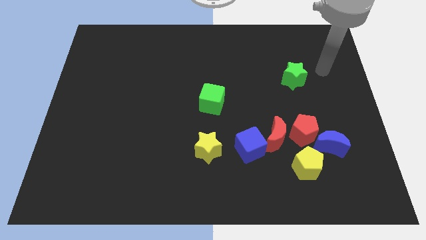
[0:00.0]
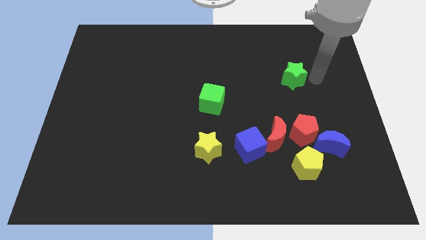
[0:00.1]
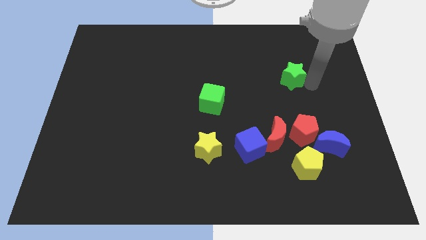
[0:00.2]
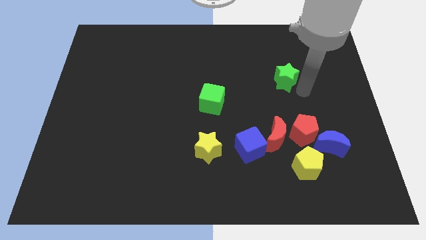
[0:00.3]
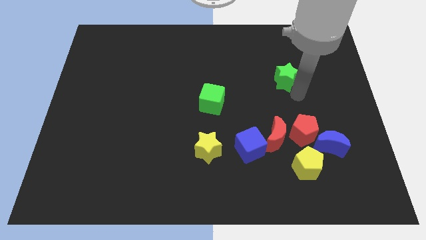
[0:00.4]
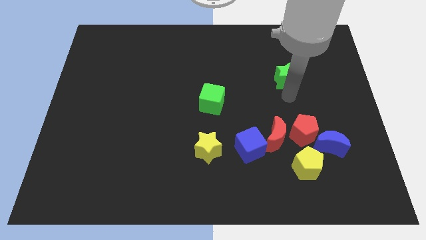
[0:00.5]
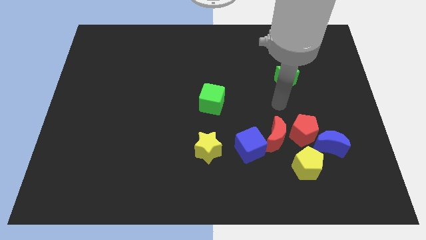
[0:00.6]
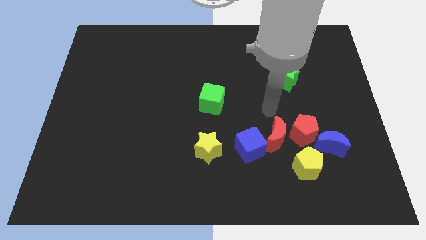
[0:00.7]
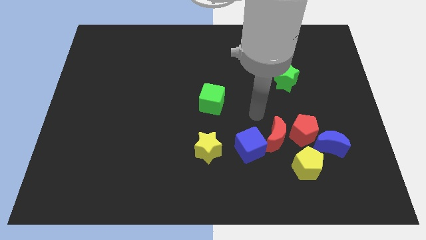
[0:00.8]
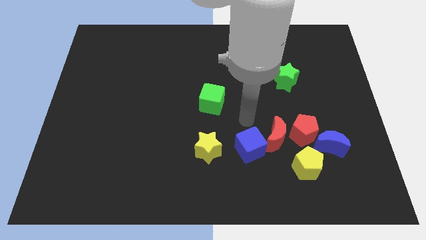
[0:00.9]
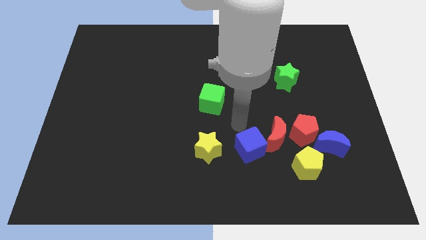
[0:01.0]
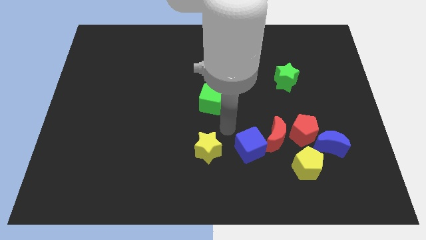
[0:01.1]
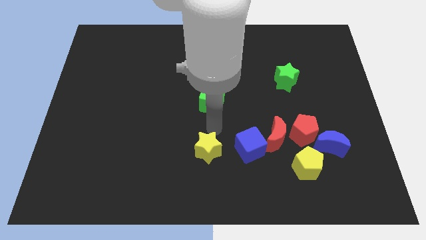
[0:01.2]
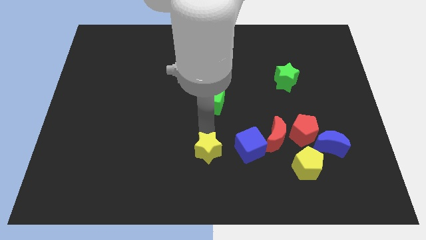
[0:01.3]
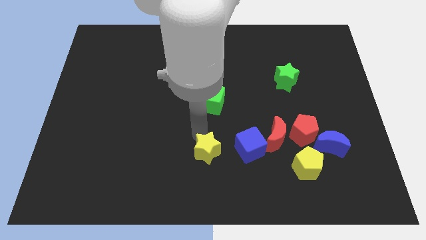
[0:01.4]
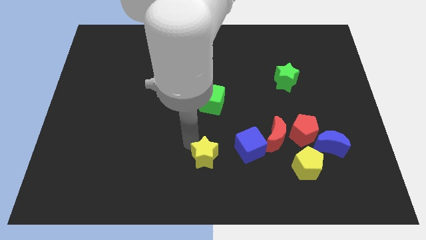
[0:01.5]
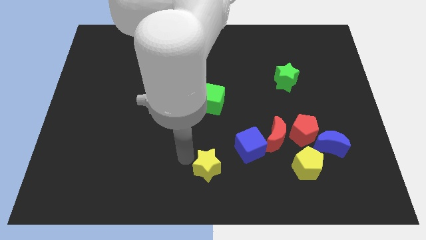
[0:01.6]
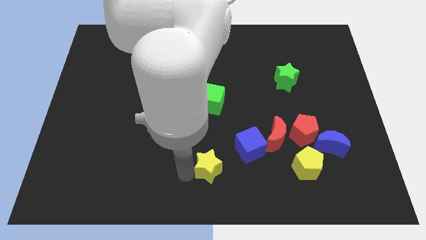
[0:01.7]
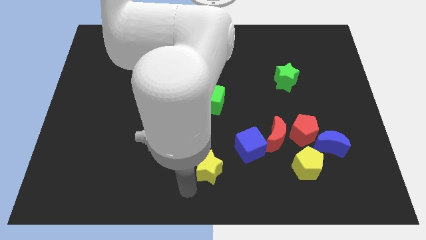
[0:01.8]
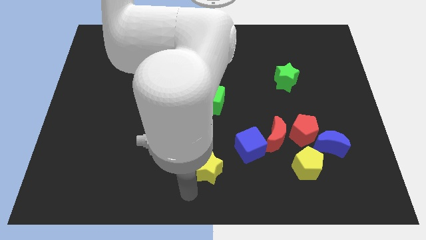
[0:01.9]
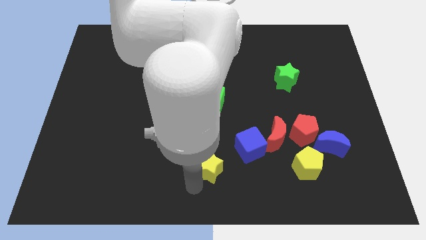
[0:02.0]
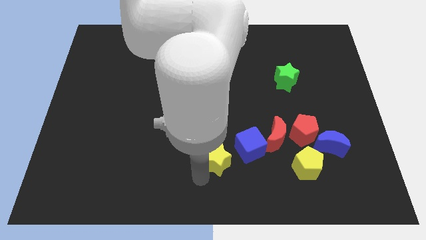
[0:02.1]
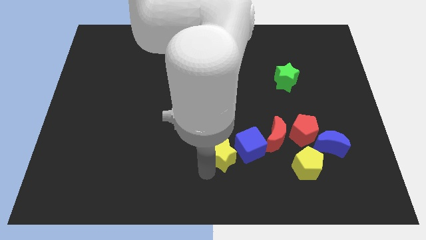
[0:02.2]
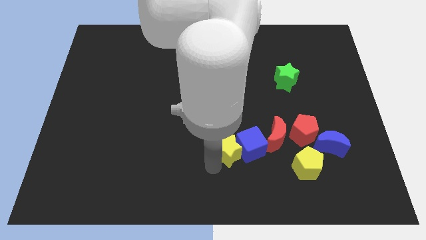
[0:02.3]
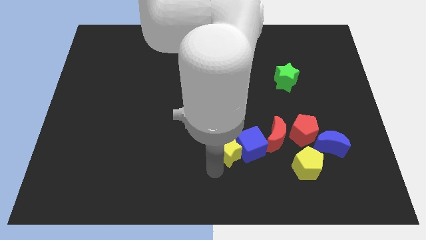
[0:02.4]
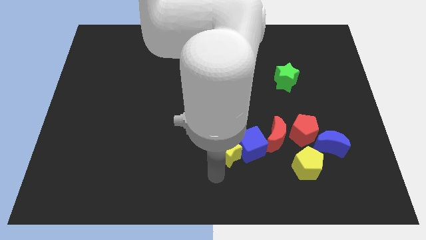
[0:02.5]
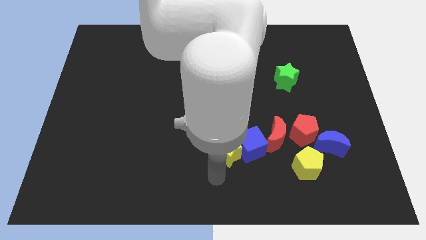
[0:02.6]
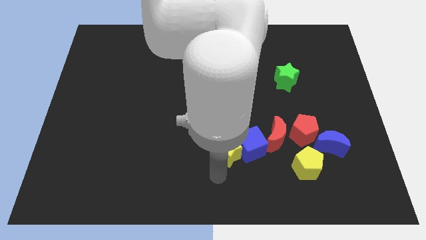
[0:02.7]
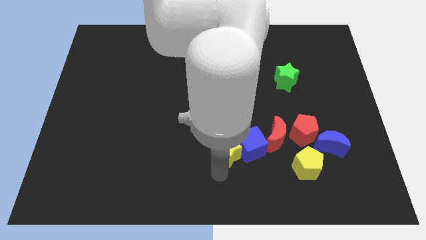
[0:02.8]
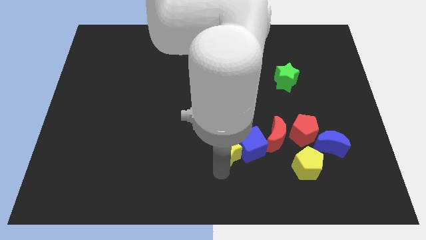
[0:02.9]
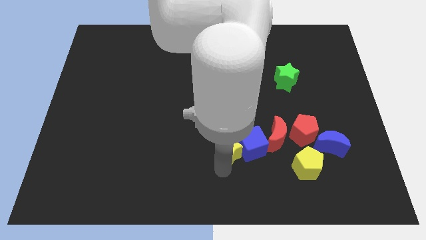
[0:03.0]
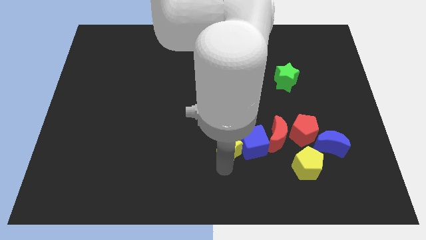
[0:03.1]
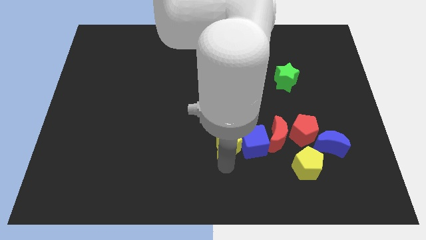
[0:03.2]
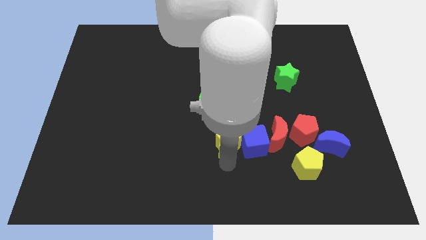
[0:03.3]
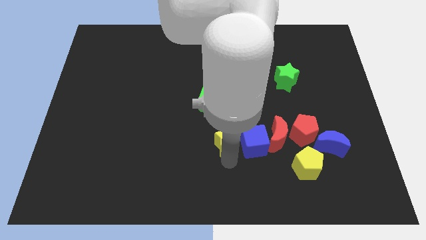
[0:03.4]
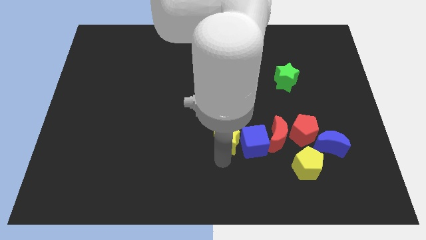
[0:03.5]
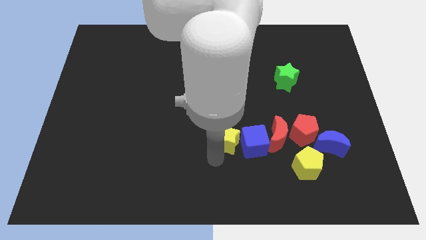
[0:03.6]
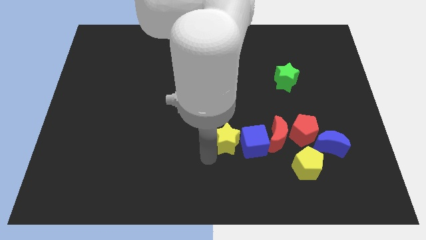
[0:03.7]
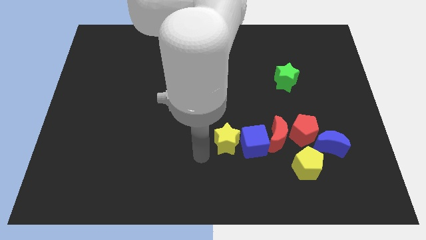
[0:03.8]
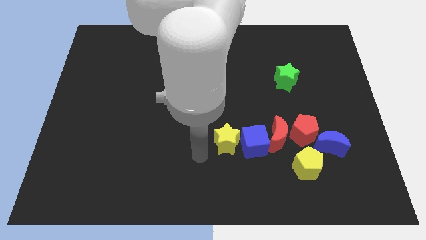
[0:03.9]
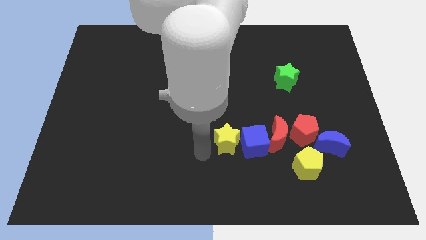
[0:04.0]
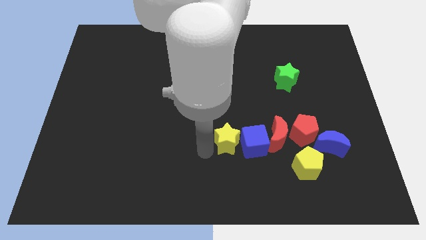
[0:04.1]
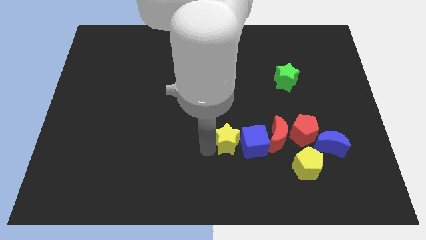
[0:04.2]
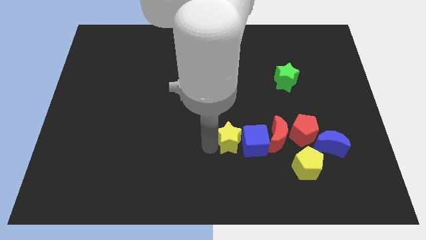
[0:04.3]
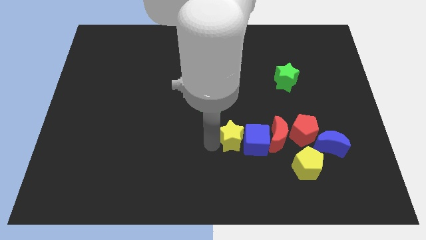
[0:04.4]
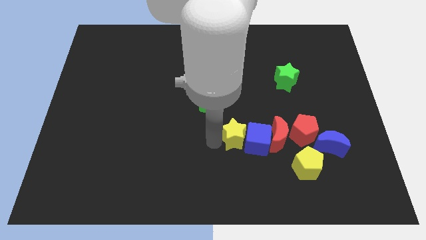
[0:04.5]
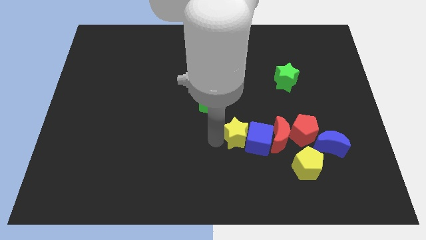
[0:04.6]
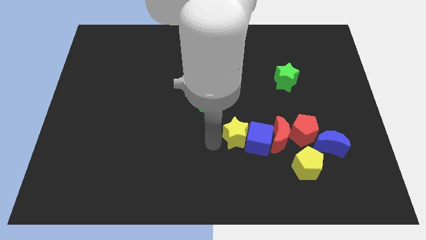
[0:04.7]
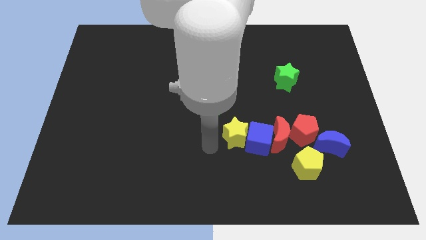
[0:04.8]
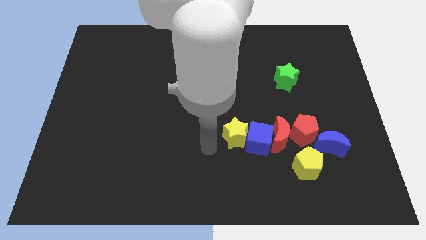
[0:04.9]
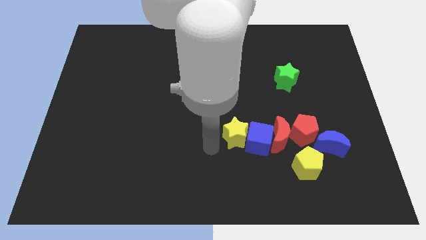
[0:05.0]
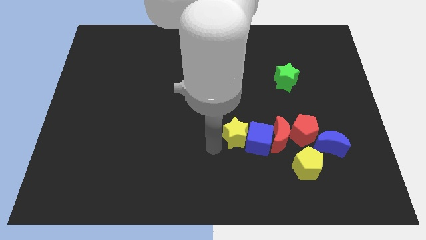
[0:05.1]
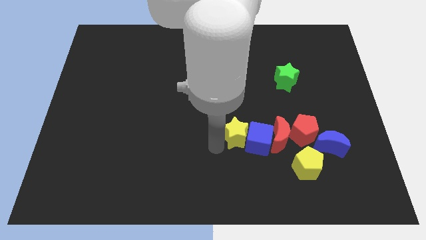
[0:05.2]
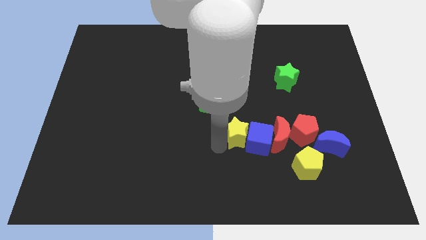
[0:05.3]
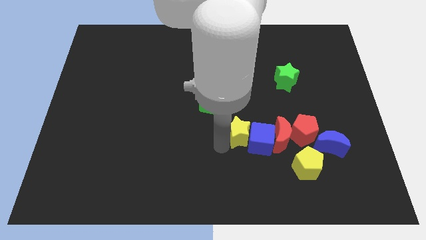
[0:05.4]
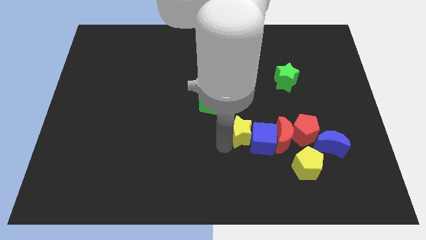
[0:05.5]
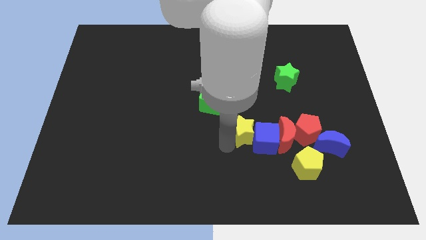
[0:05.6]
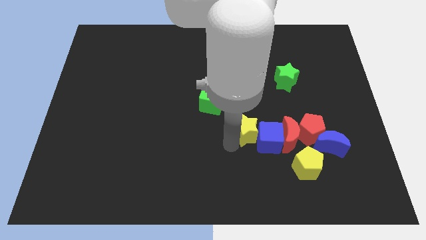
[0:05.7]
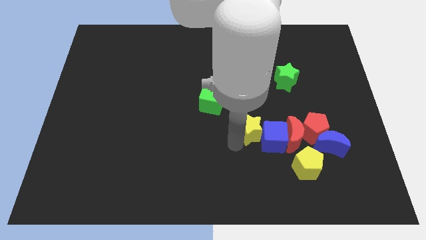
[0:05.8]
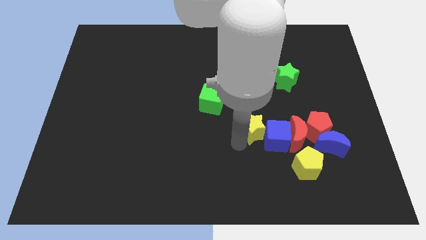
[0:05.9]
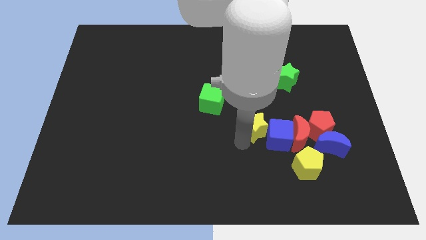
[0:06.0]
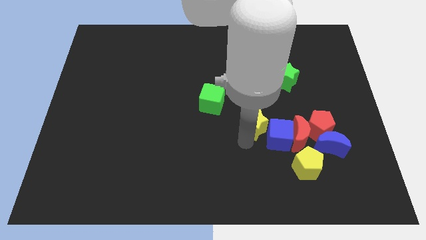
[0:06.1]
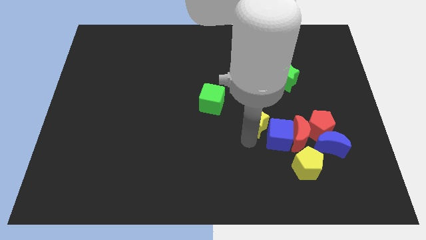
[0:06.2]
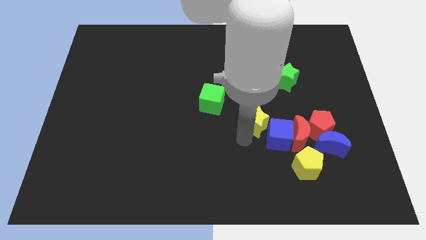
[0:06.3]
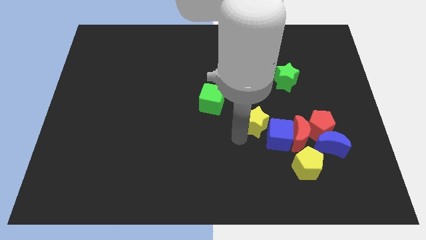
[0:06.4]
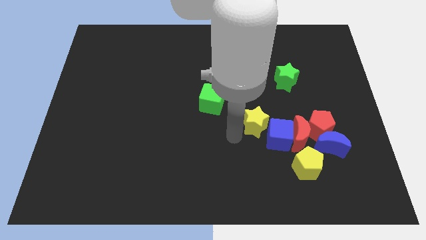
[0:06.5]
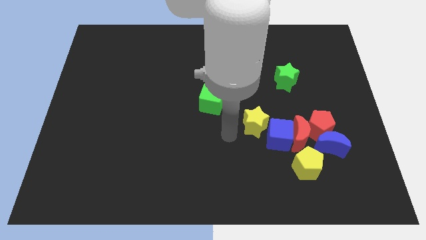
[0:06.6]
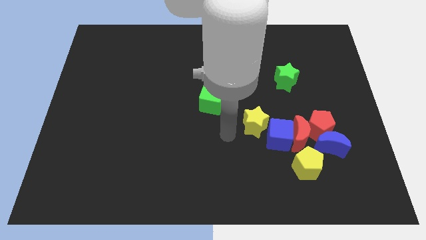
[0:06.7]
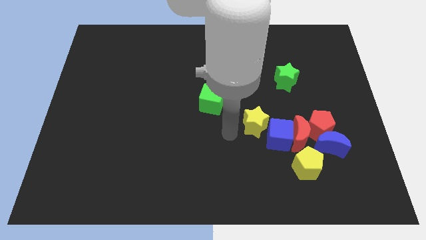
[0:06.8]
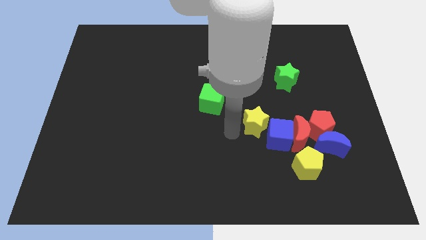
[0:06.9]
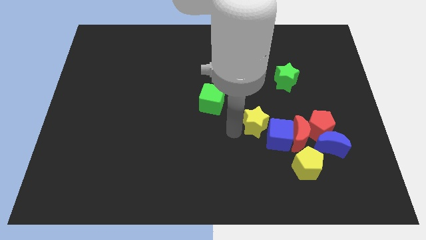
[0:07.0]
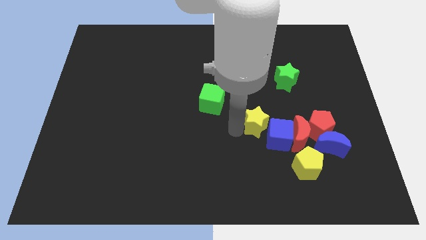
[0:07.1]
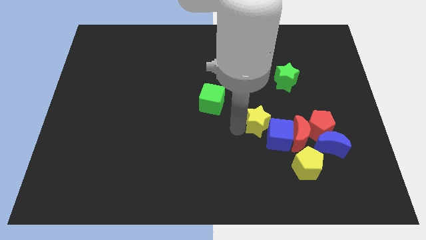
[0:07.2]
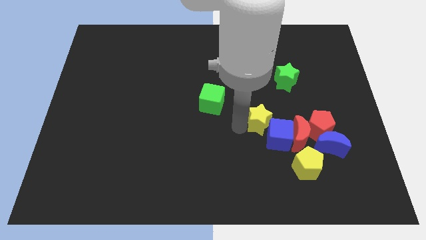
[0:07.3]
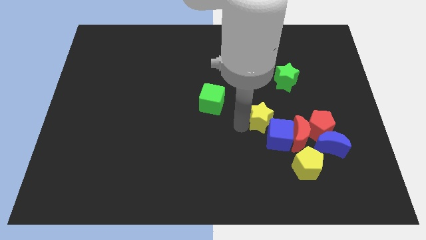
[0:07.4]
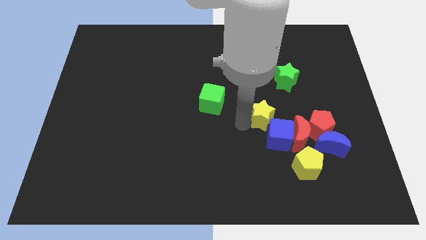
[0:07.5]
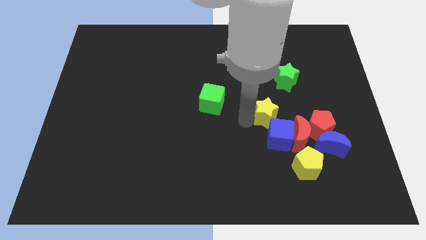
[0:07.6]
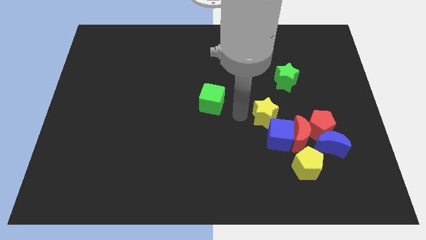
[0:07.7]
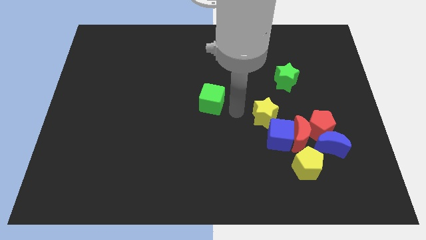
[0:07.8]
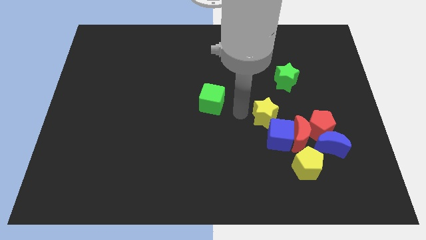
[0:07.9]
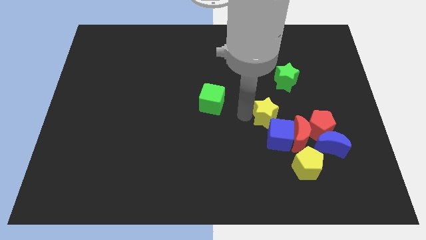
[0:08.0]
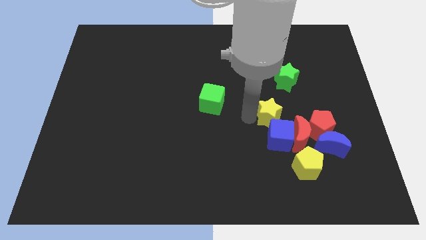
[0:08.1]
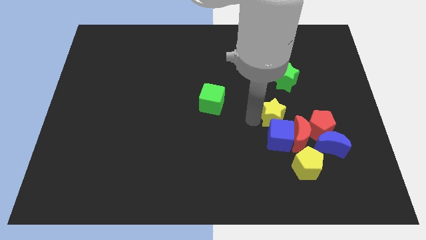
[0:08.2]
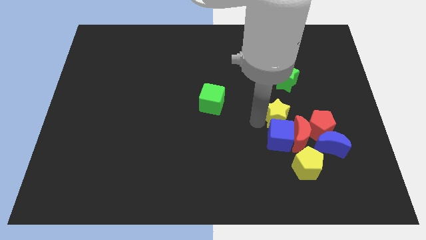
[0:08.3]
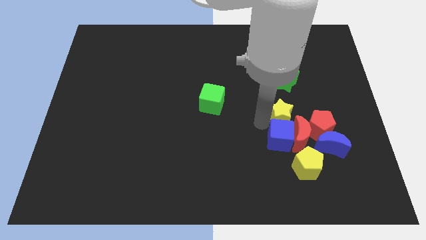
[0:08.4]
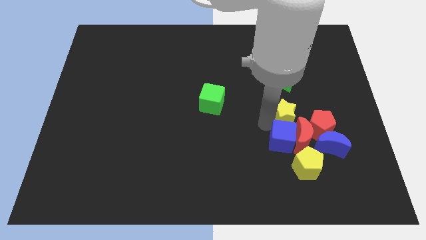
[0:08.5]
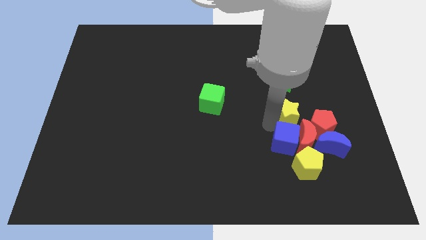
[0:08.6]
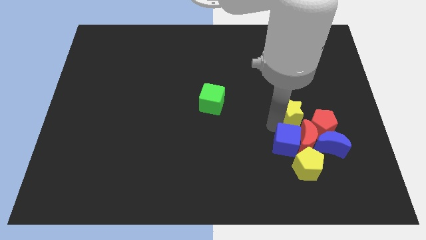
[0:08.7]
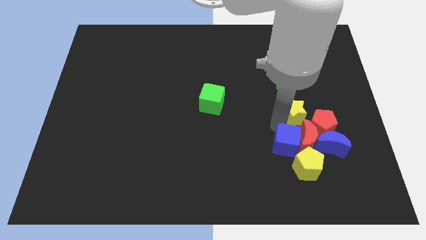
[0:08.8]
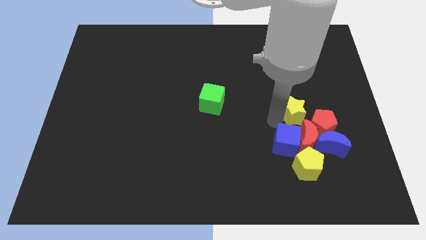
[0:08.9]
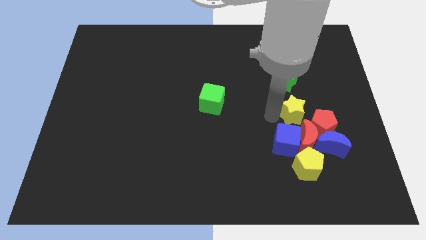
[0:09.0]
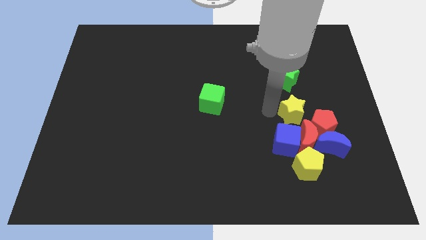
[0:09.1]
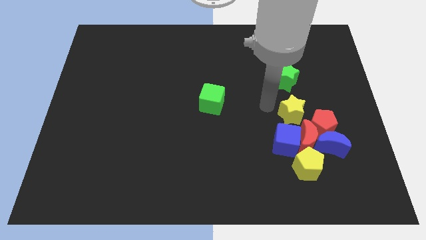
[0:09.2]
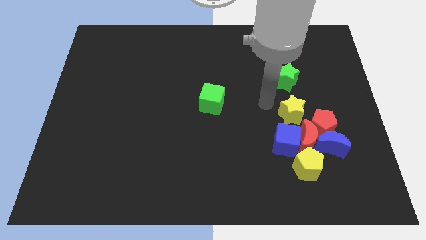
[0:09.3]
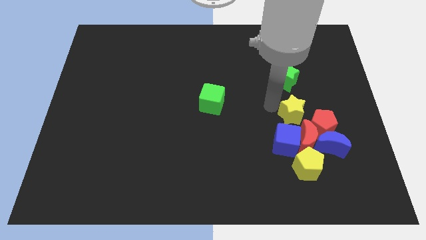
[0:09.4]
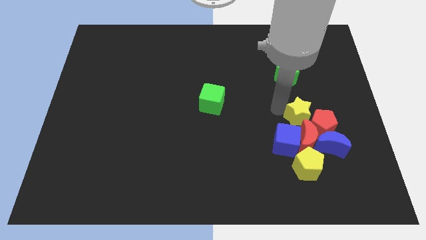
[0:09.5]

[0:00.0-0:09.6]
put the yellow star close to the red pentagon
